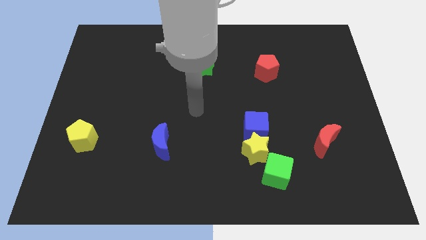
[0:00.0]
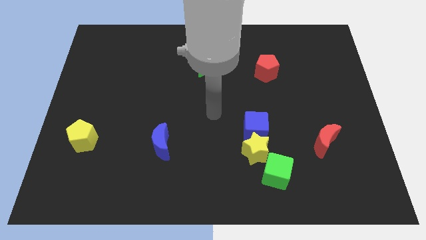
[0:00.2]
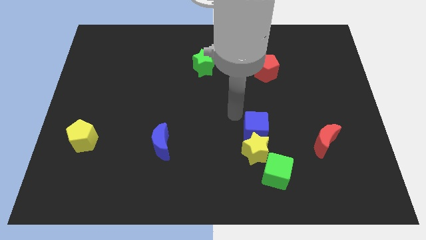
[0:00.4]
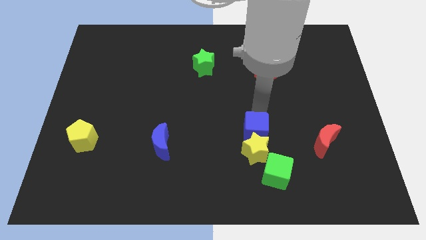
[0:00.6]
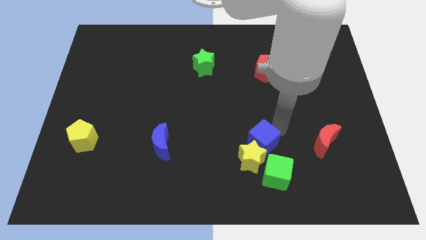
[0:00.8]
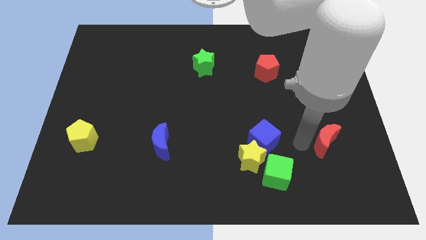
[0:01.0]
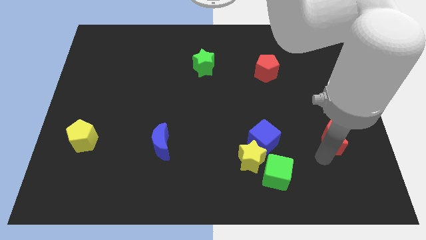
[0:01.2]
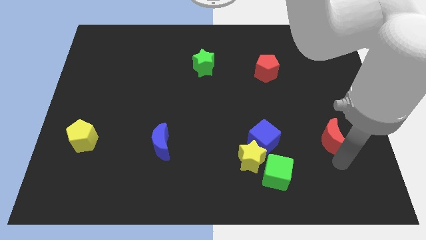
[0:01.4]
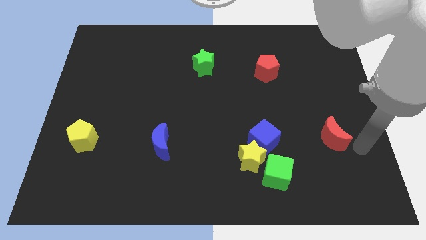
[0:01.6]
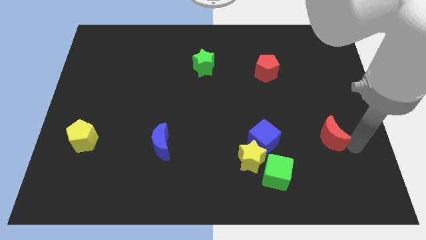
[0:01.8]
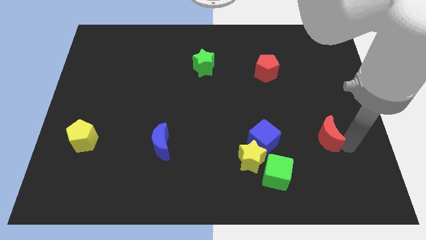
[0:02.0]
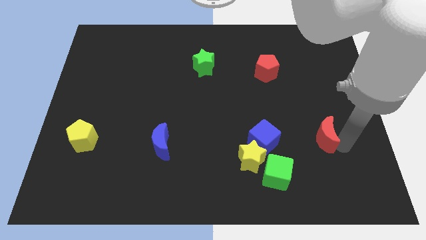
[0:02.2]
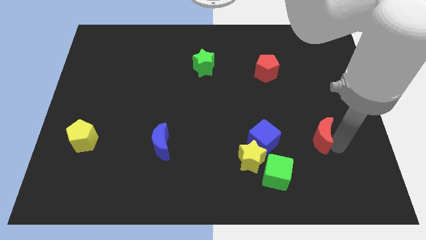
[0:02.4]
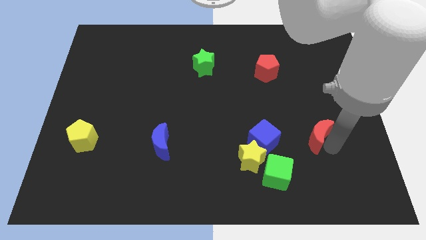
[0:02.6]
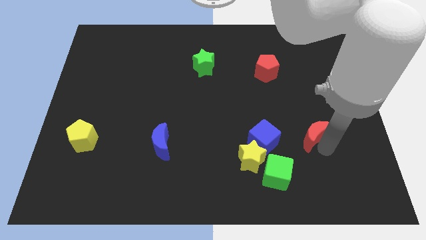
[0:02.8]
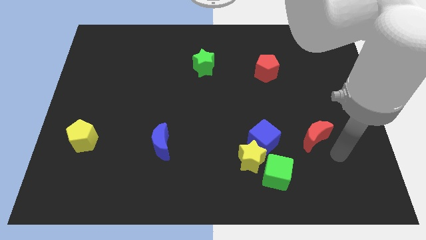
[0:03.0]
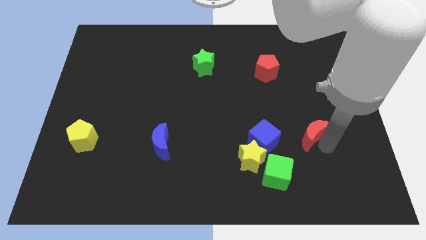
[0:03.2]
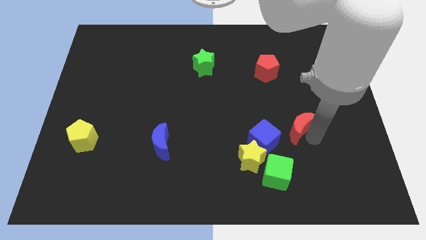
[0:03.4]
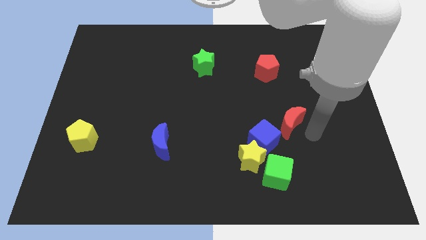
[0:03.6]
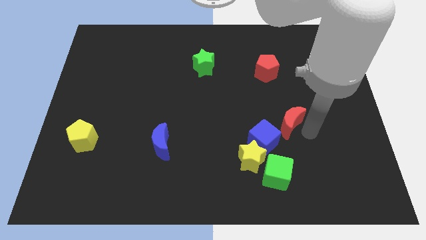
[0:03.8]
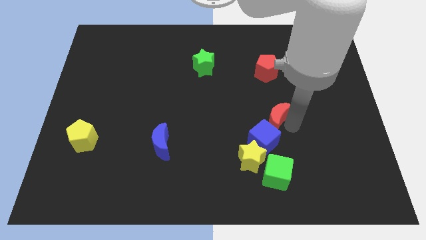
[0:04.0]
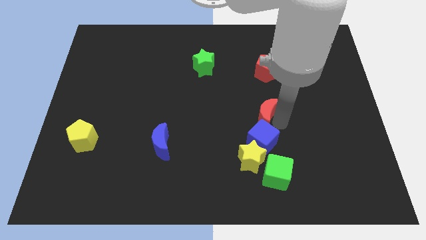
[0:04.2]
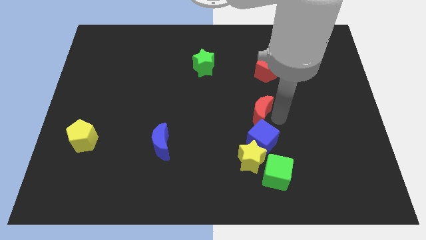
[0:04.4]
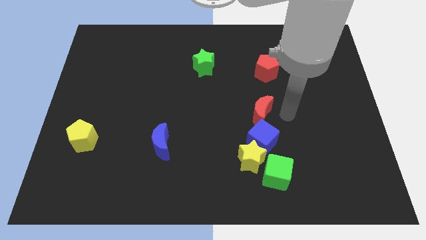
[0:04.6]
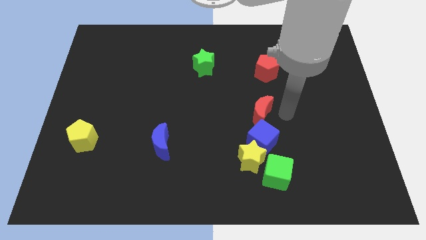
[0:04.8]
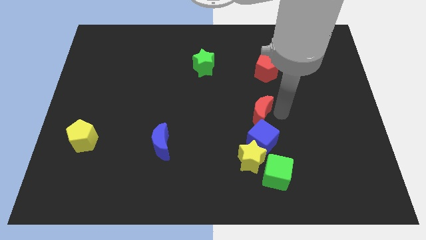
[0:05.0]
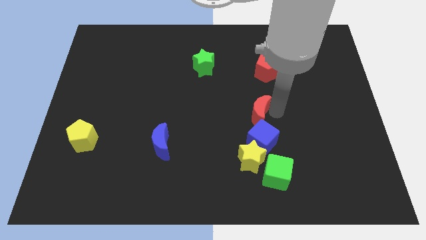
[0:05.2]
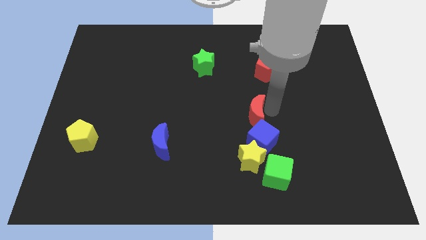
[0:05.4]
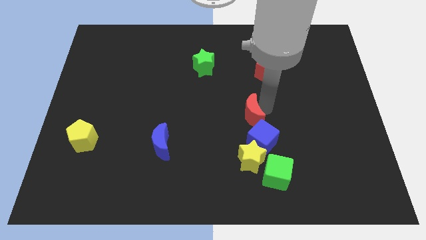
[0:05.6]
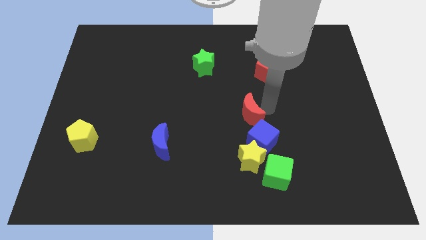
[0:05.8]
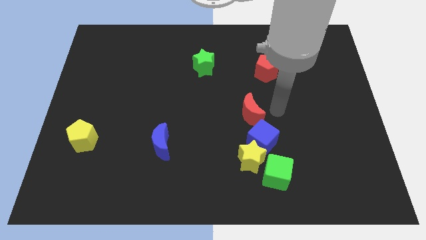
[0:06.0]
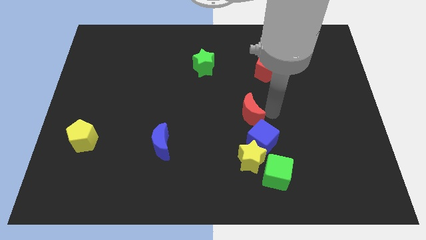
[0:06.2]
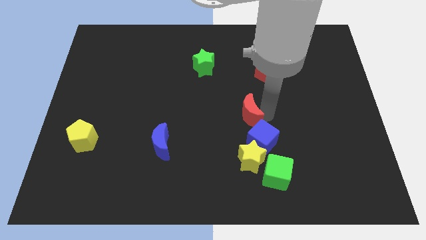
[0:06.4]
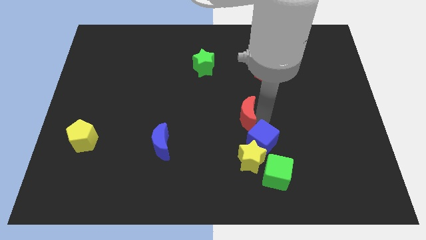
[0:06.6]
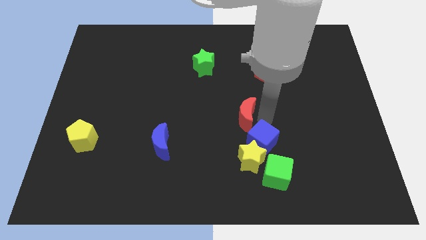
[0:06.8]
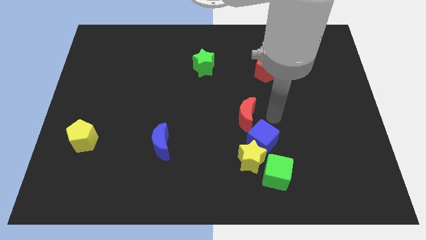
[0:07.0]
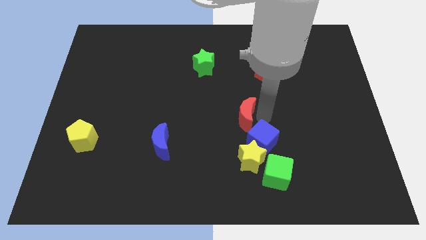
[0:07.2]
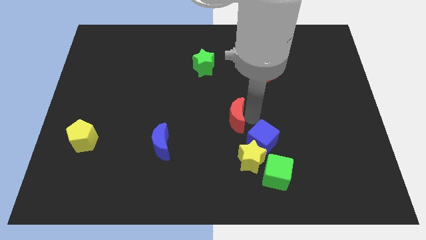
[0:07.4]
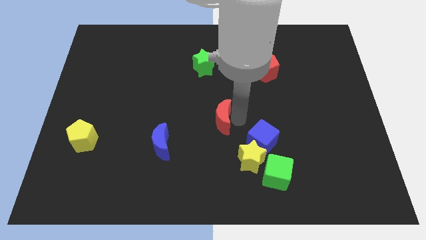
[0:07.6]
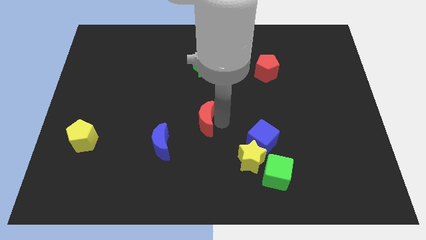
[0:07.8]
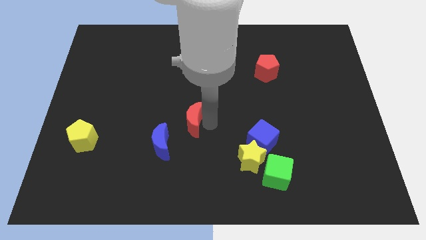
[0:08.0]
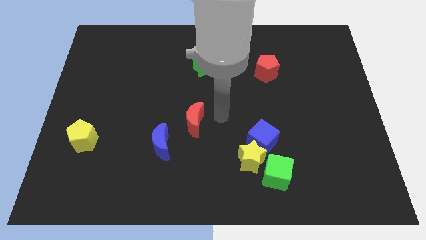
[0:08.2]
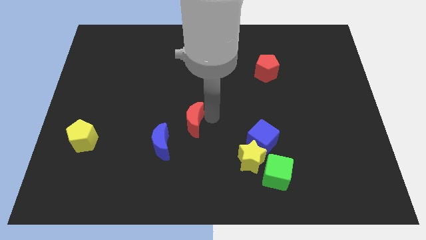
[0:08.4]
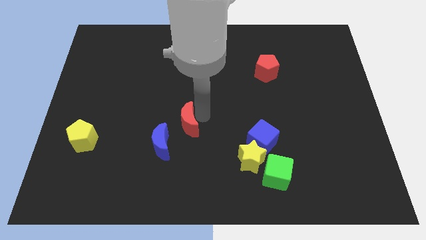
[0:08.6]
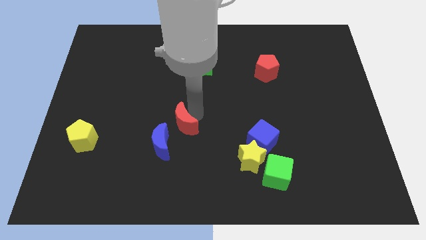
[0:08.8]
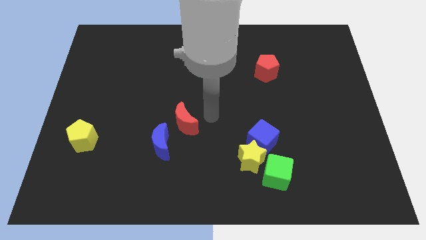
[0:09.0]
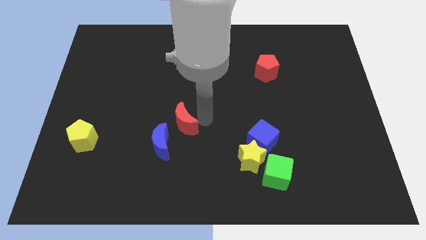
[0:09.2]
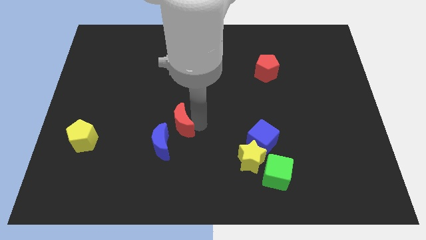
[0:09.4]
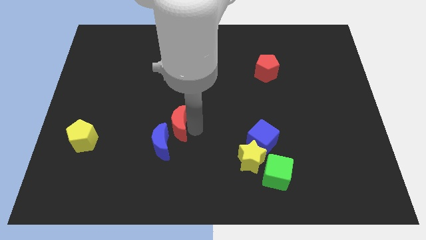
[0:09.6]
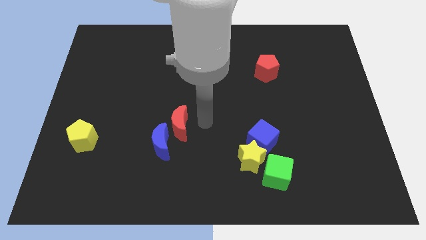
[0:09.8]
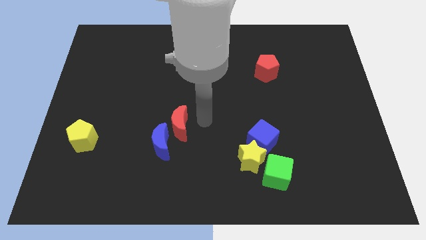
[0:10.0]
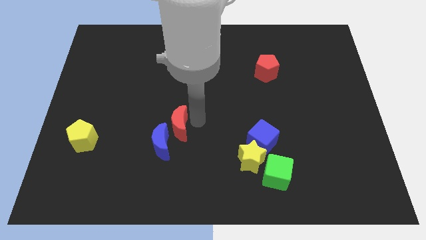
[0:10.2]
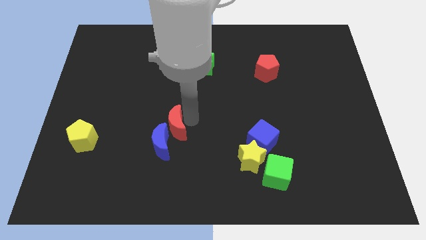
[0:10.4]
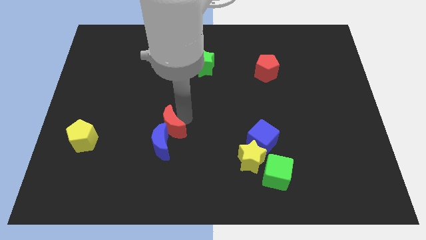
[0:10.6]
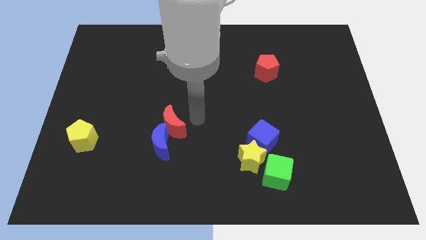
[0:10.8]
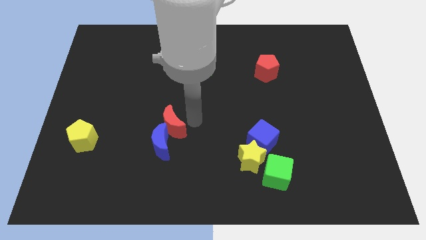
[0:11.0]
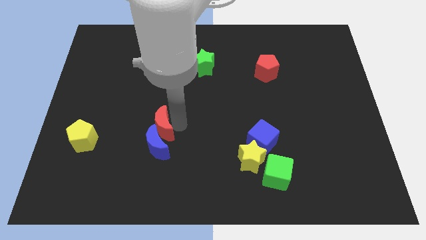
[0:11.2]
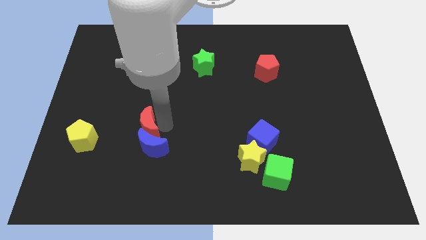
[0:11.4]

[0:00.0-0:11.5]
move the red moon to the right of the yellow pentagon

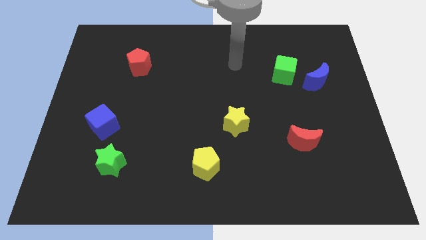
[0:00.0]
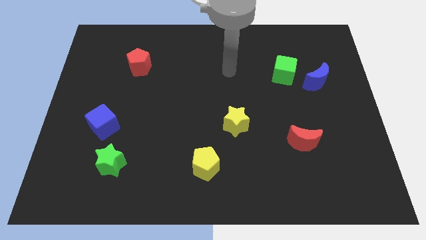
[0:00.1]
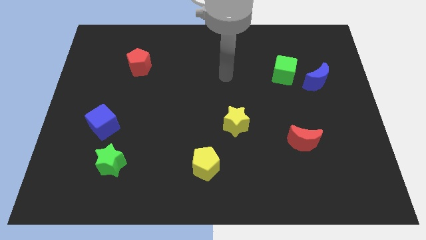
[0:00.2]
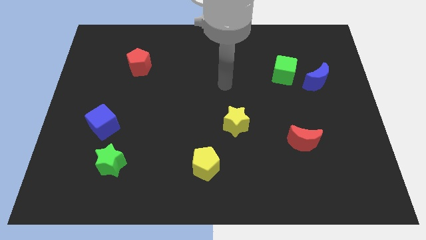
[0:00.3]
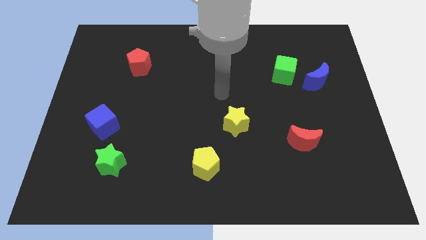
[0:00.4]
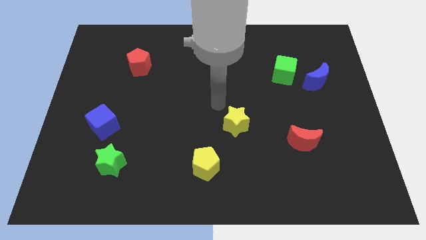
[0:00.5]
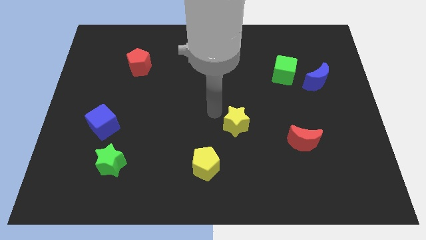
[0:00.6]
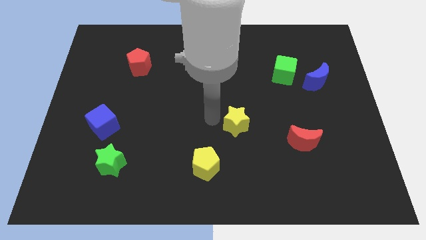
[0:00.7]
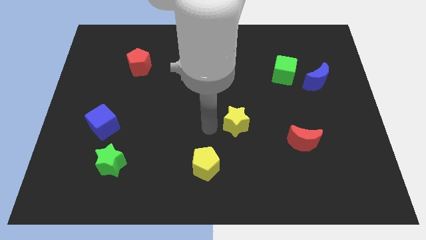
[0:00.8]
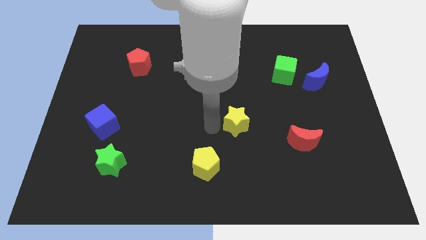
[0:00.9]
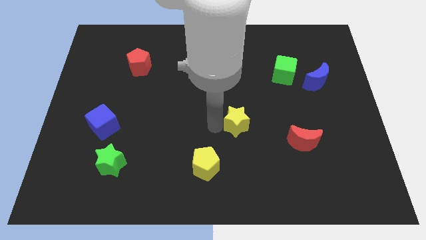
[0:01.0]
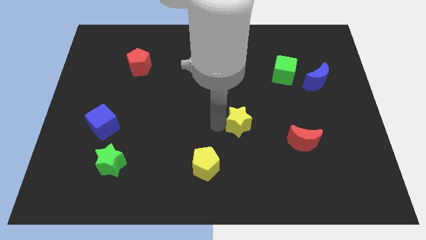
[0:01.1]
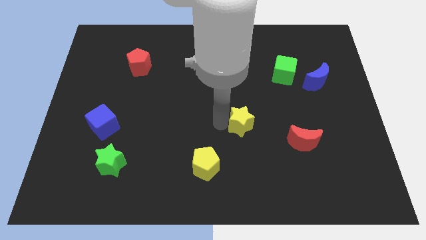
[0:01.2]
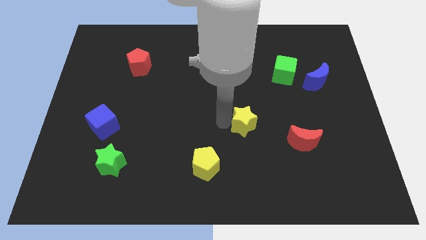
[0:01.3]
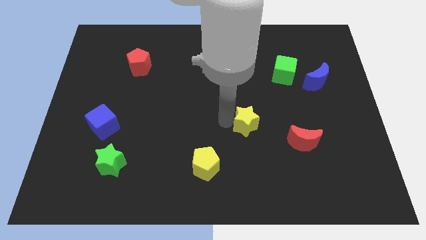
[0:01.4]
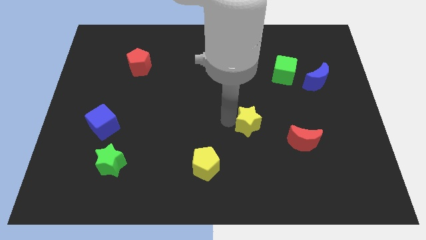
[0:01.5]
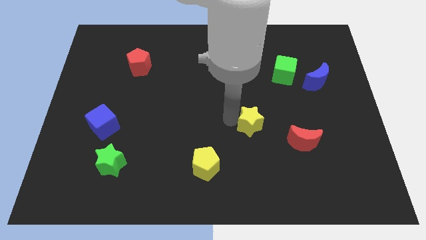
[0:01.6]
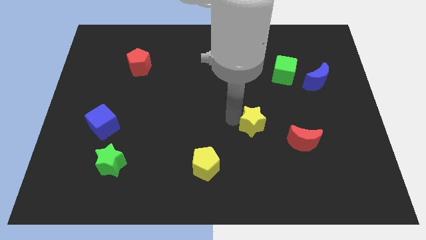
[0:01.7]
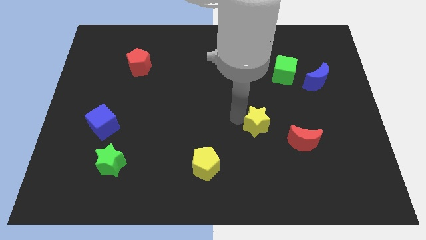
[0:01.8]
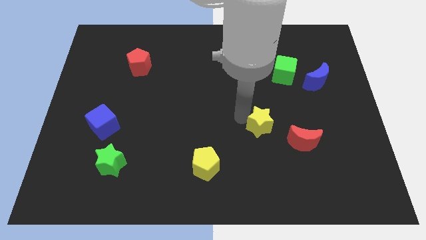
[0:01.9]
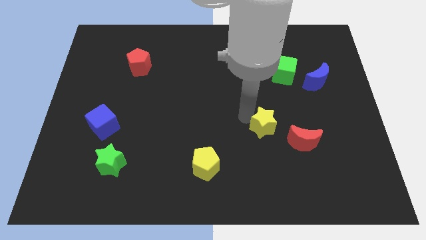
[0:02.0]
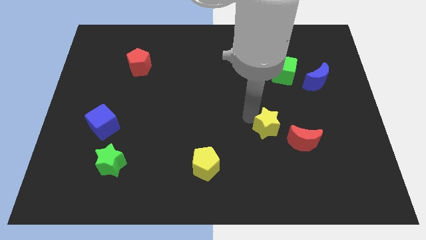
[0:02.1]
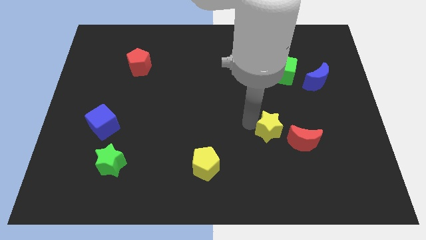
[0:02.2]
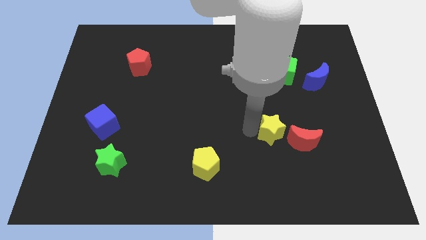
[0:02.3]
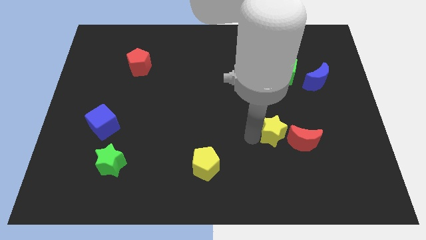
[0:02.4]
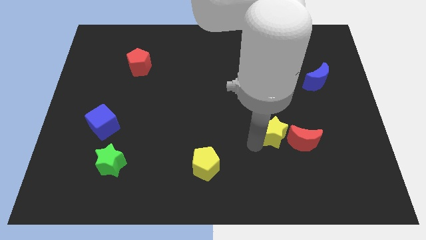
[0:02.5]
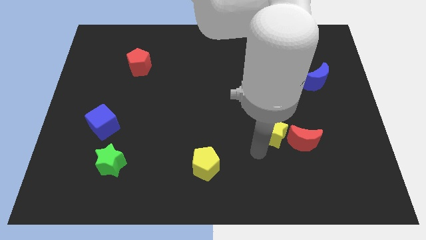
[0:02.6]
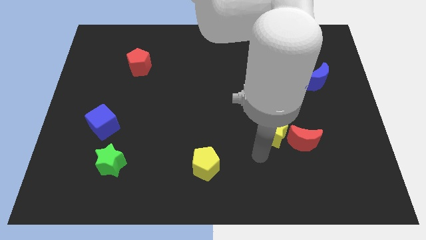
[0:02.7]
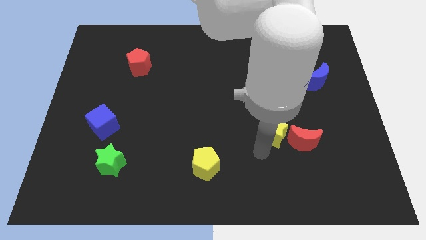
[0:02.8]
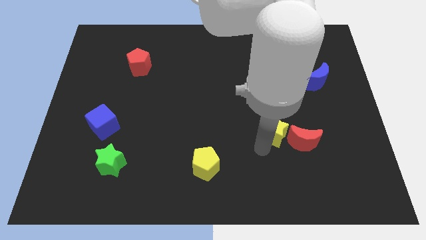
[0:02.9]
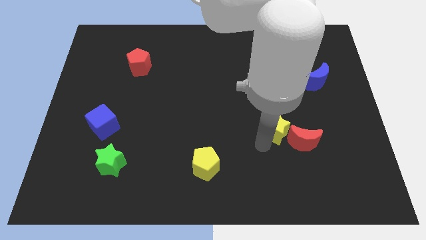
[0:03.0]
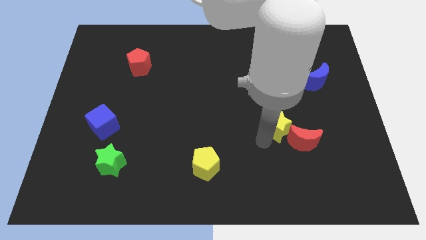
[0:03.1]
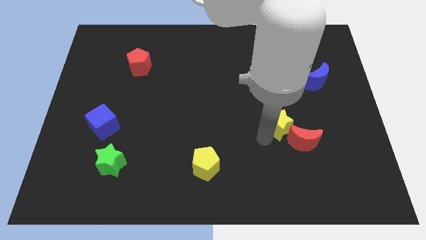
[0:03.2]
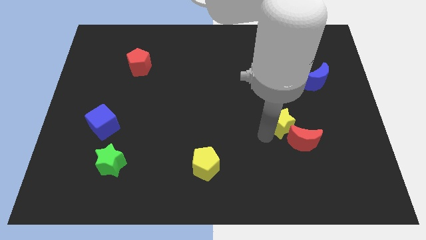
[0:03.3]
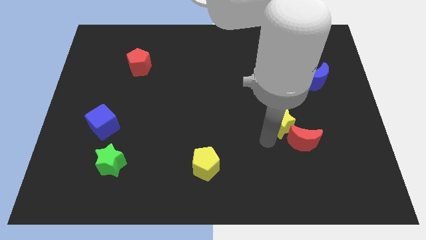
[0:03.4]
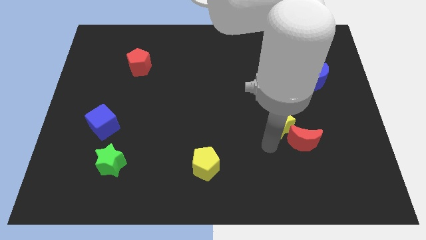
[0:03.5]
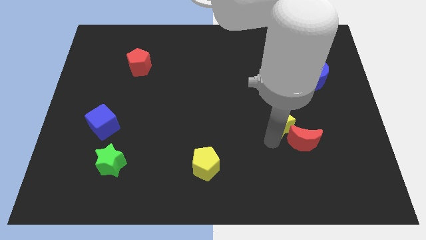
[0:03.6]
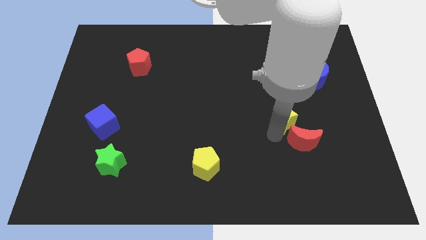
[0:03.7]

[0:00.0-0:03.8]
put the yellow star to the bottom side of the green cube
